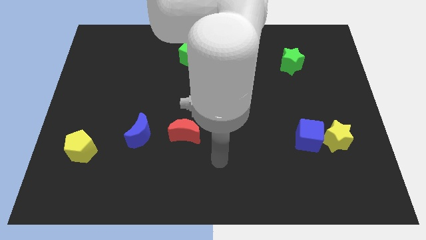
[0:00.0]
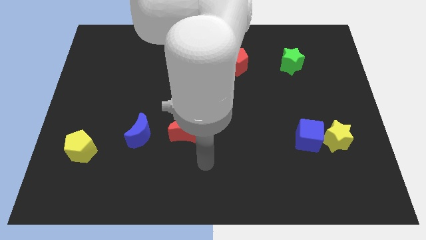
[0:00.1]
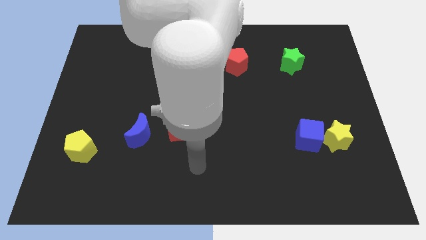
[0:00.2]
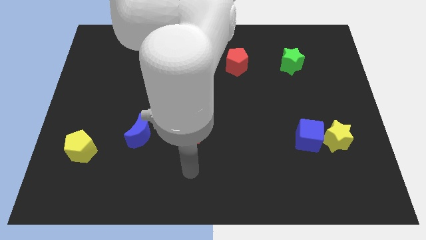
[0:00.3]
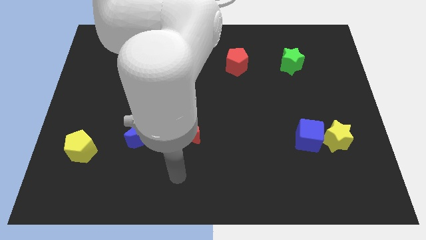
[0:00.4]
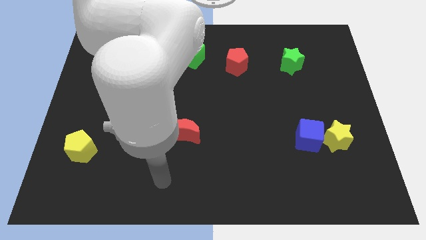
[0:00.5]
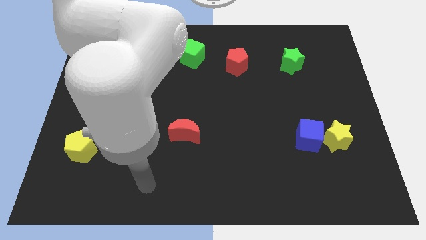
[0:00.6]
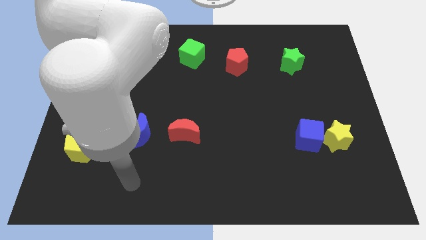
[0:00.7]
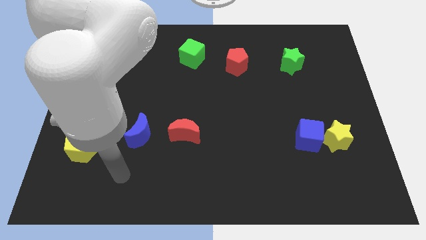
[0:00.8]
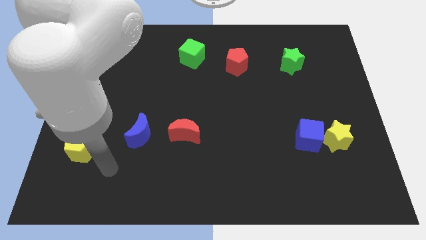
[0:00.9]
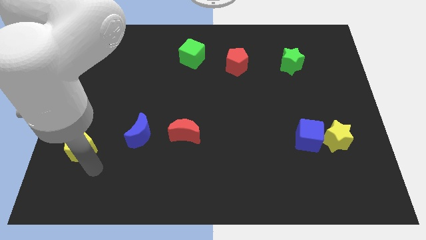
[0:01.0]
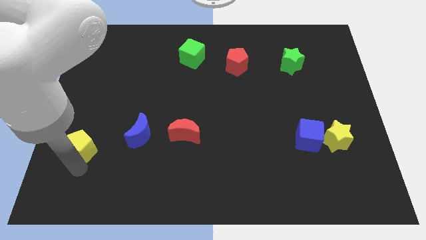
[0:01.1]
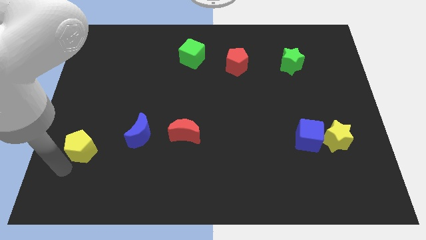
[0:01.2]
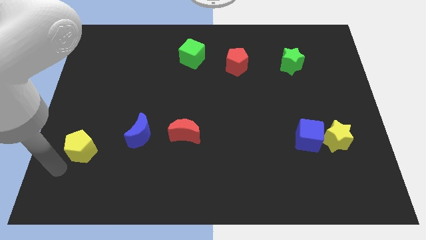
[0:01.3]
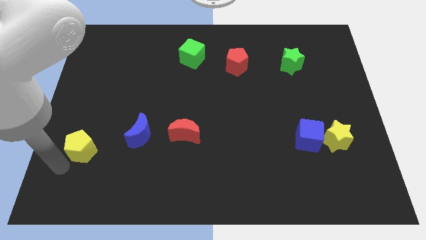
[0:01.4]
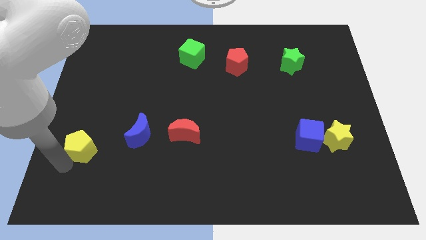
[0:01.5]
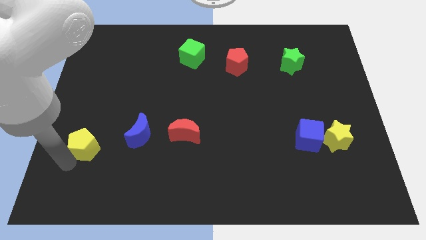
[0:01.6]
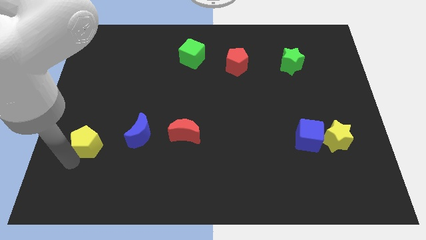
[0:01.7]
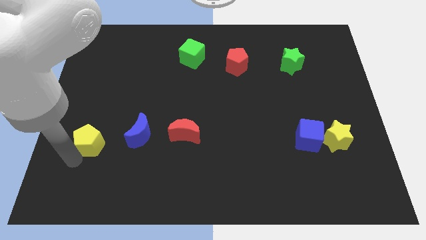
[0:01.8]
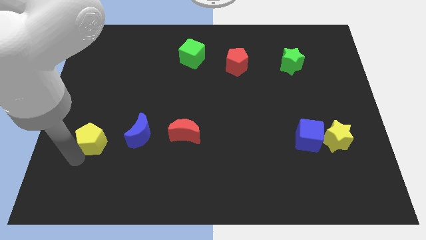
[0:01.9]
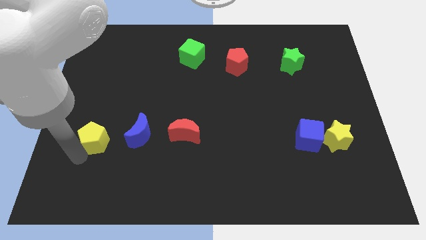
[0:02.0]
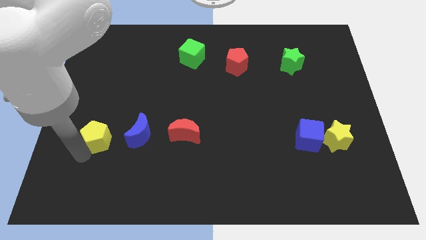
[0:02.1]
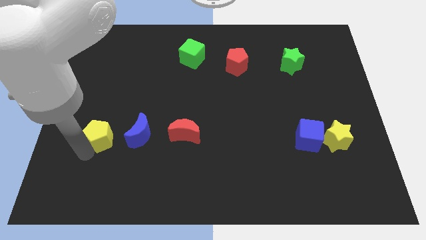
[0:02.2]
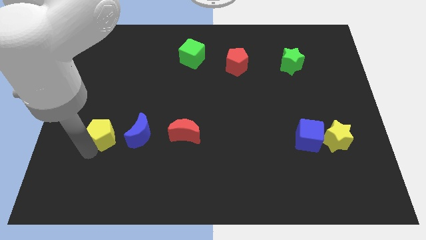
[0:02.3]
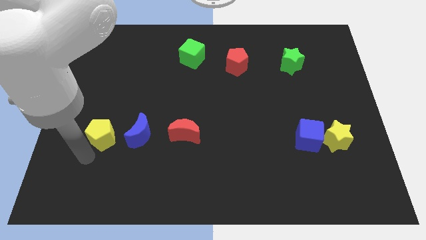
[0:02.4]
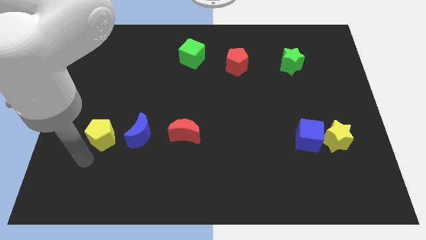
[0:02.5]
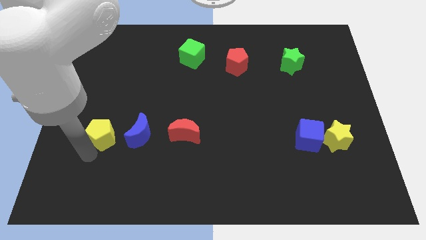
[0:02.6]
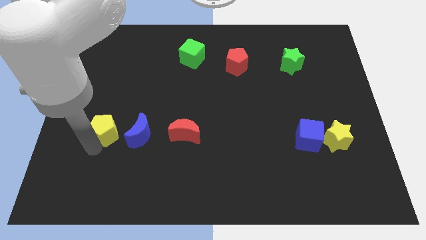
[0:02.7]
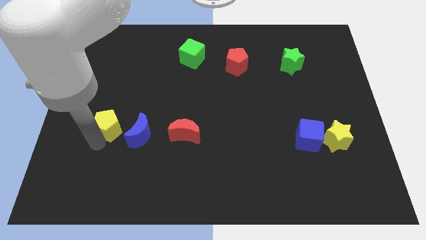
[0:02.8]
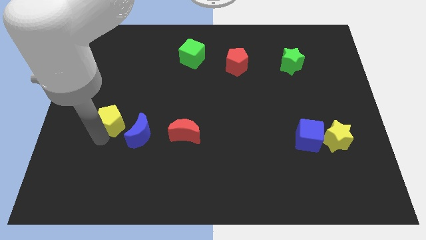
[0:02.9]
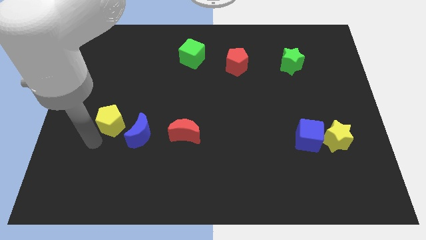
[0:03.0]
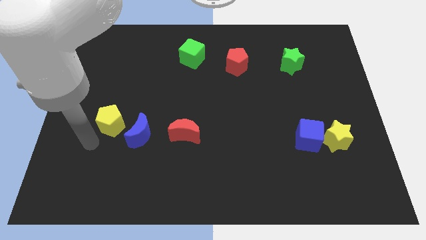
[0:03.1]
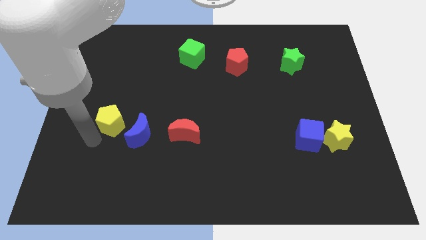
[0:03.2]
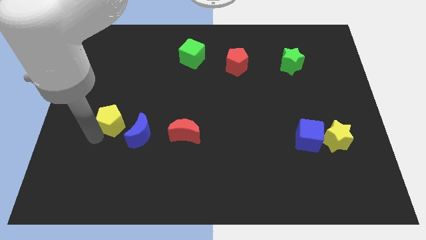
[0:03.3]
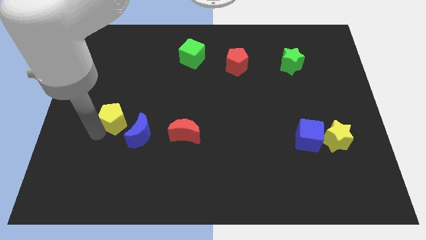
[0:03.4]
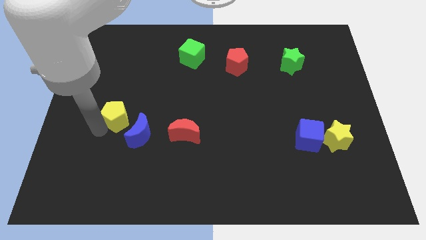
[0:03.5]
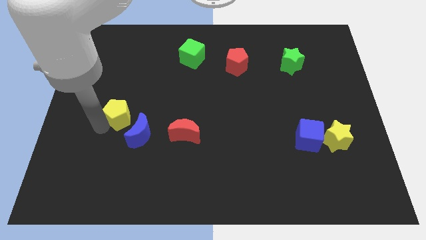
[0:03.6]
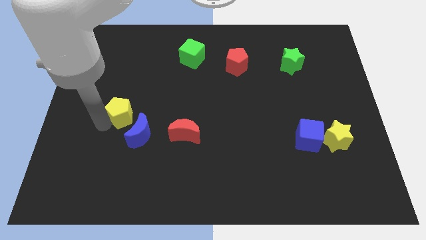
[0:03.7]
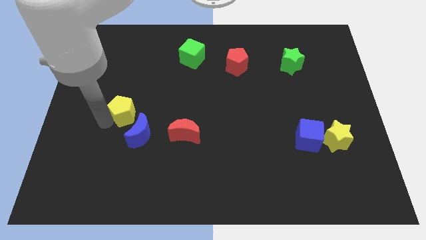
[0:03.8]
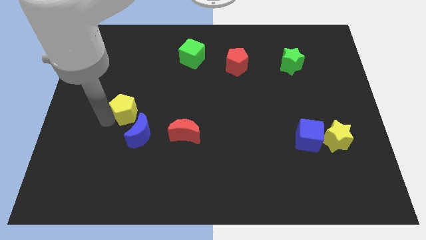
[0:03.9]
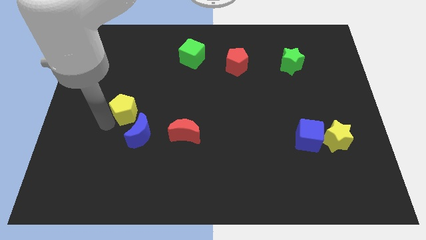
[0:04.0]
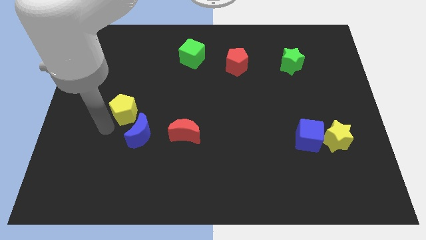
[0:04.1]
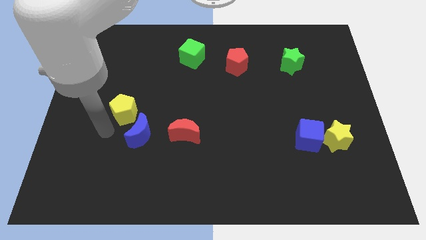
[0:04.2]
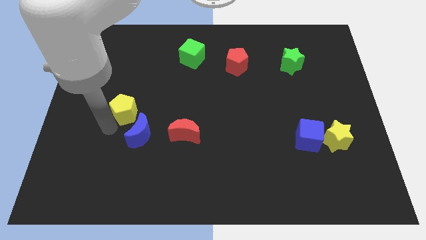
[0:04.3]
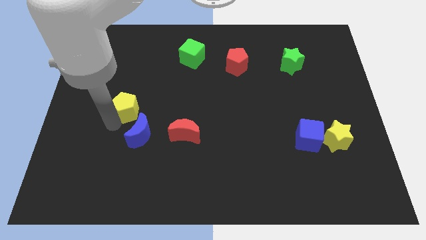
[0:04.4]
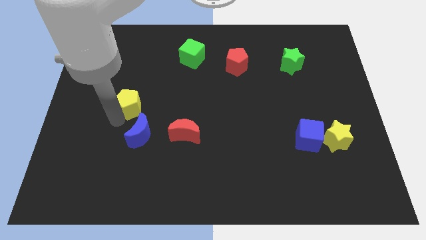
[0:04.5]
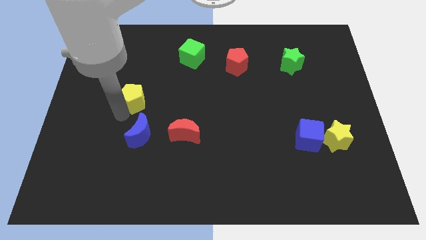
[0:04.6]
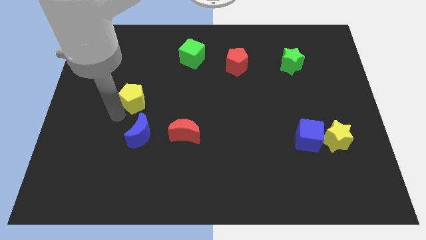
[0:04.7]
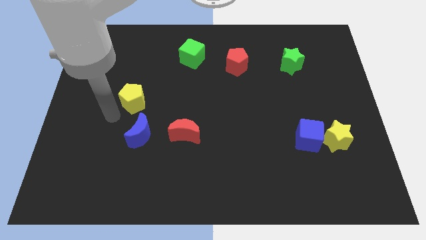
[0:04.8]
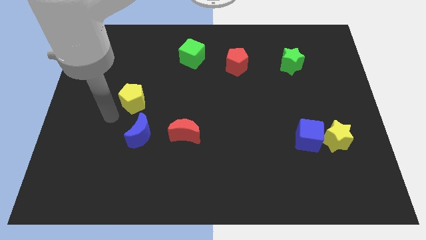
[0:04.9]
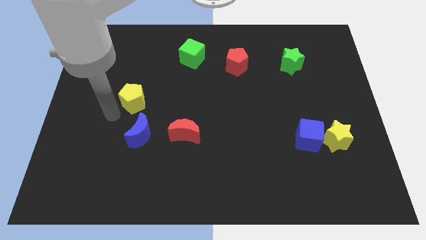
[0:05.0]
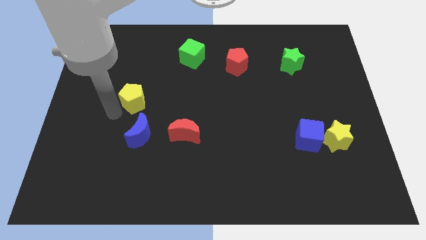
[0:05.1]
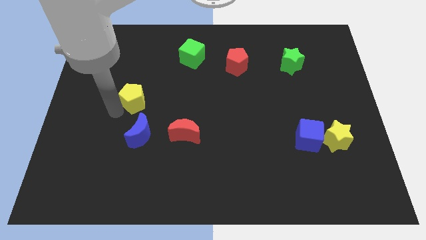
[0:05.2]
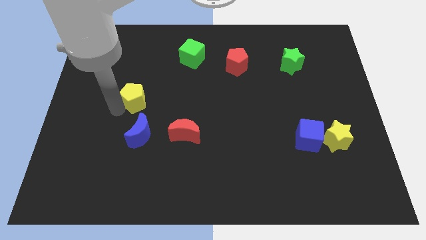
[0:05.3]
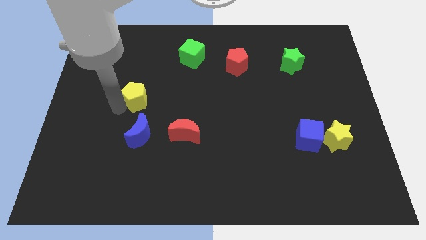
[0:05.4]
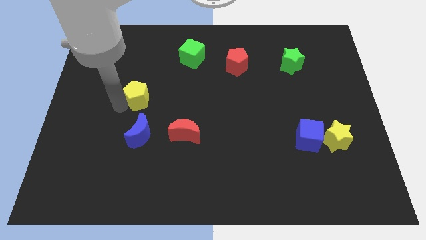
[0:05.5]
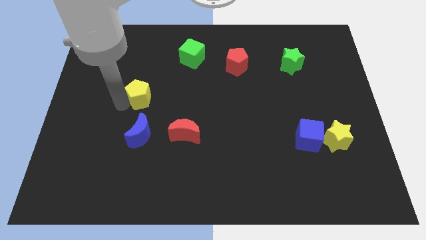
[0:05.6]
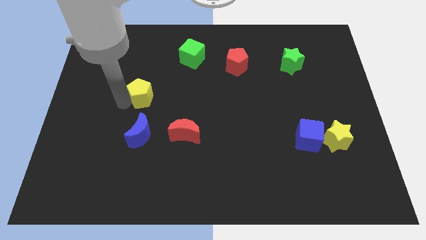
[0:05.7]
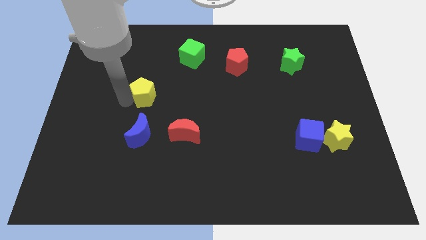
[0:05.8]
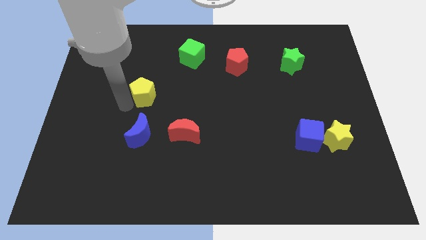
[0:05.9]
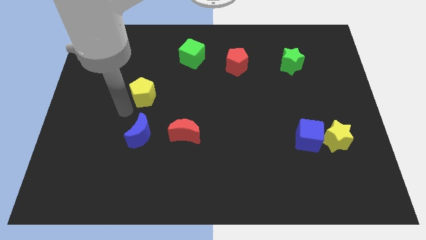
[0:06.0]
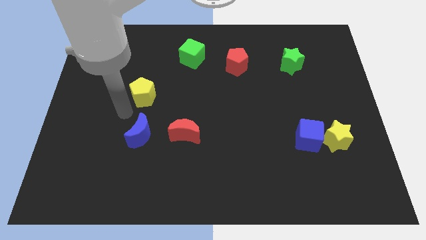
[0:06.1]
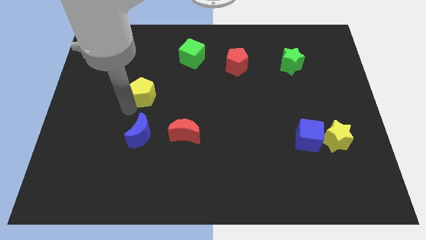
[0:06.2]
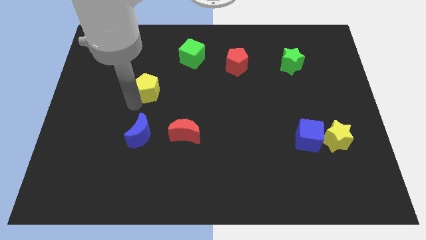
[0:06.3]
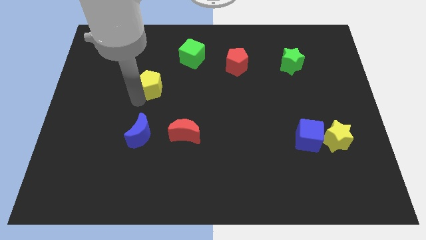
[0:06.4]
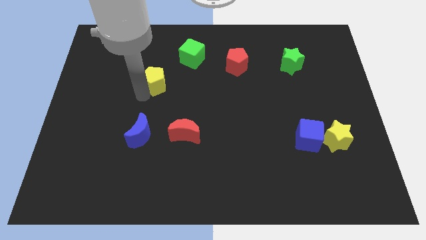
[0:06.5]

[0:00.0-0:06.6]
put the yellow pentagon diagonally down and to the left of the green cube
